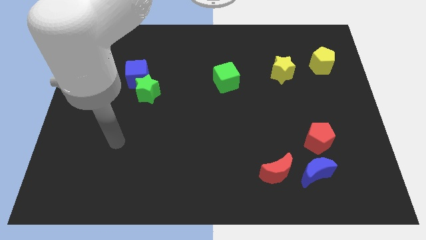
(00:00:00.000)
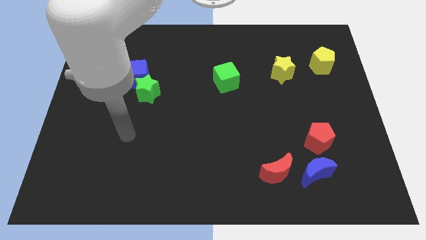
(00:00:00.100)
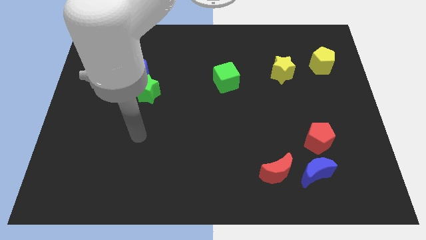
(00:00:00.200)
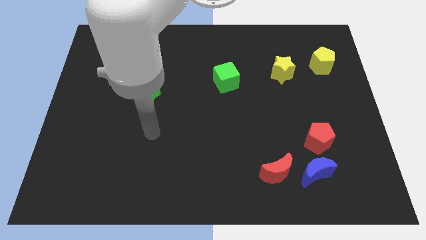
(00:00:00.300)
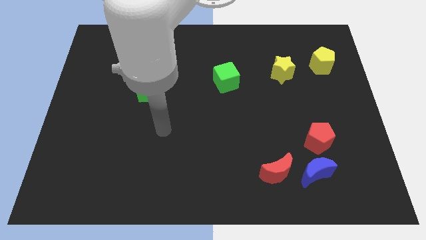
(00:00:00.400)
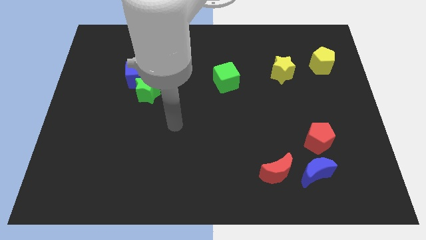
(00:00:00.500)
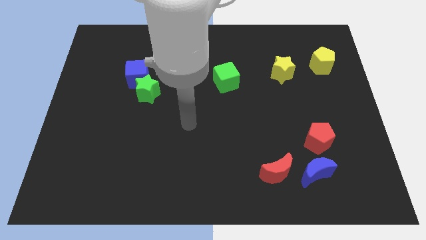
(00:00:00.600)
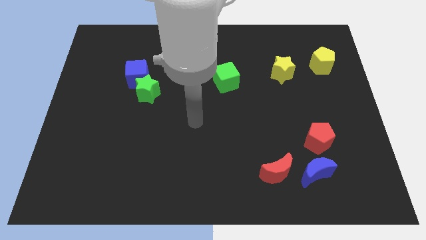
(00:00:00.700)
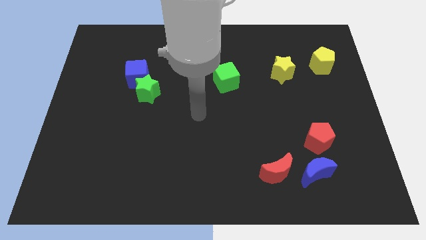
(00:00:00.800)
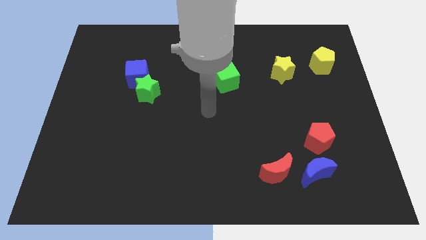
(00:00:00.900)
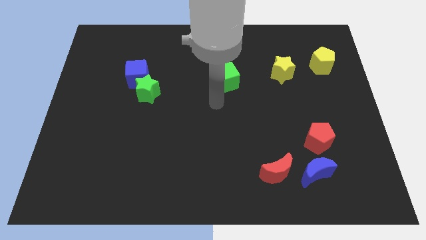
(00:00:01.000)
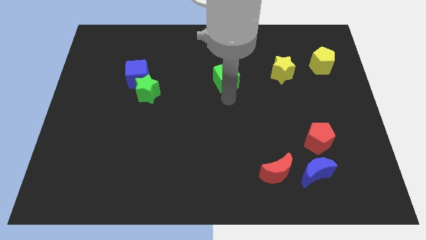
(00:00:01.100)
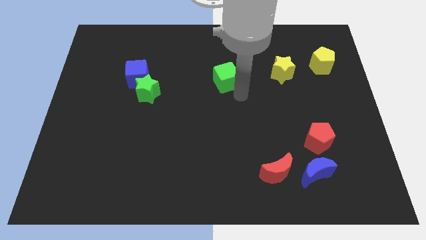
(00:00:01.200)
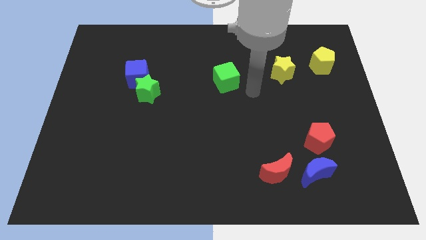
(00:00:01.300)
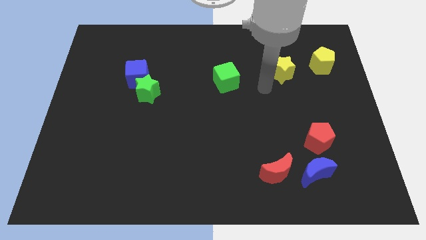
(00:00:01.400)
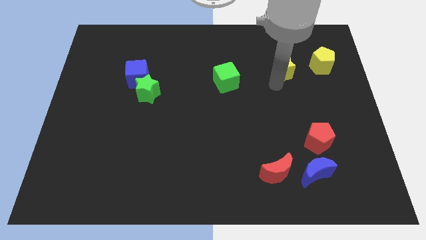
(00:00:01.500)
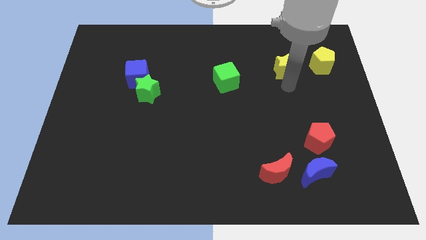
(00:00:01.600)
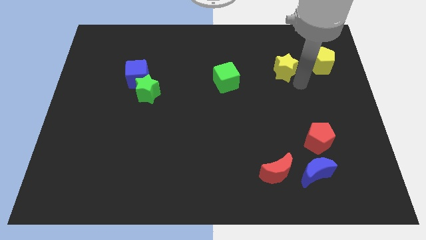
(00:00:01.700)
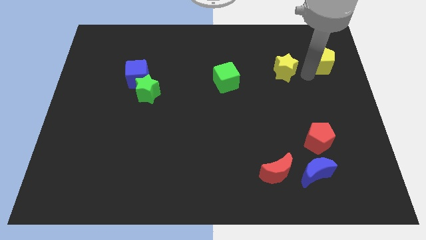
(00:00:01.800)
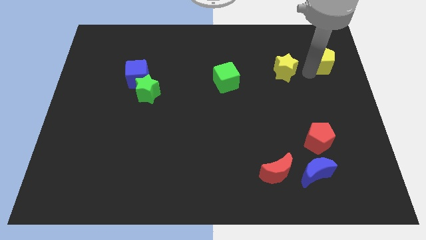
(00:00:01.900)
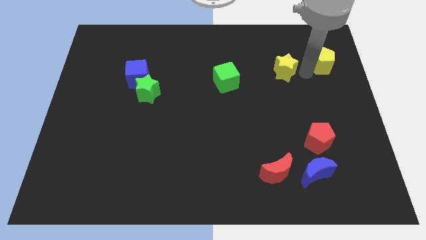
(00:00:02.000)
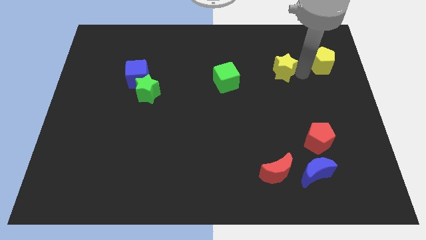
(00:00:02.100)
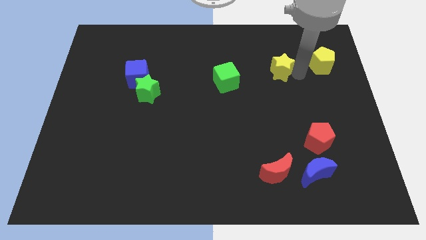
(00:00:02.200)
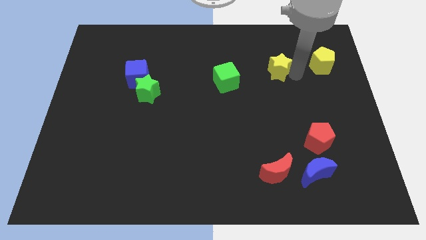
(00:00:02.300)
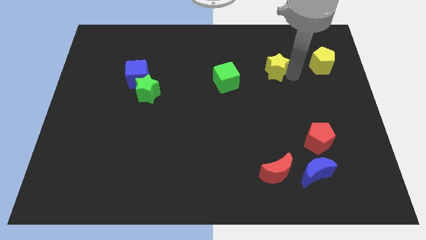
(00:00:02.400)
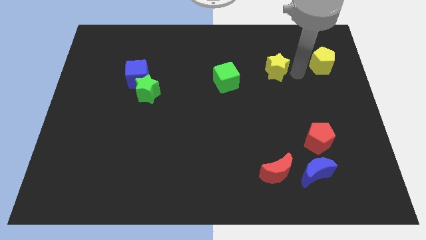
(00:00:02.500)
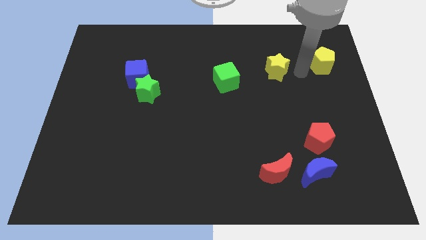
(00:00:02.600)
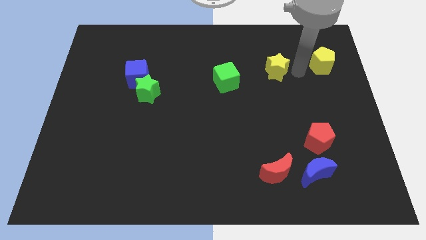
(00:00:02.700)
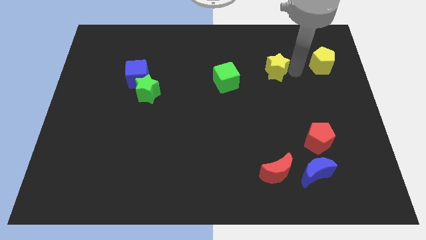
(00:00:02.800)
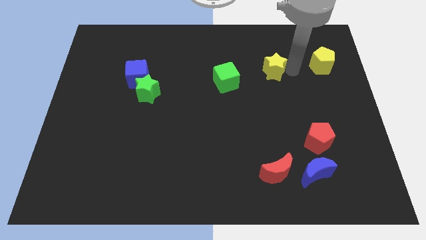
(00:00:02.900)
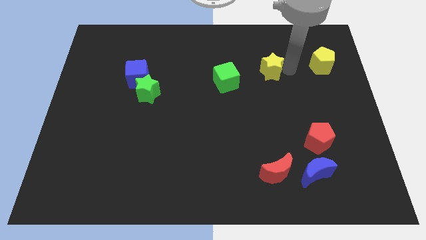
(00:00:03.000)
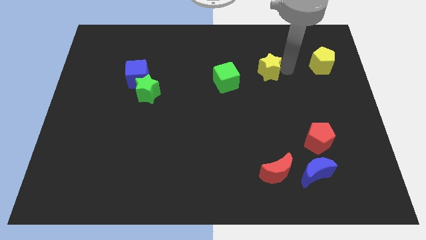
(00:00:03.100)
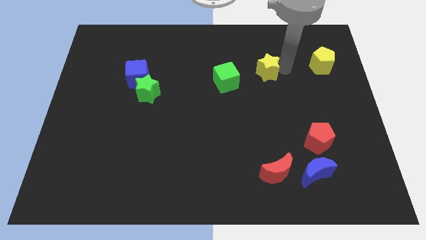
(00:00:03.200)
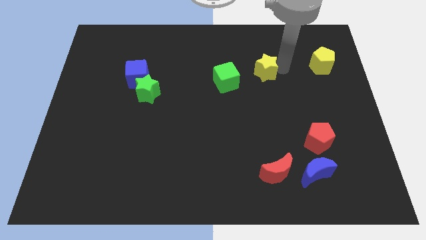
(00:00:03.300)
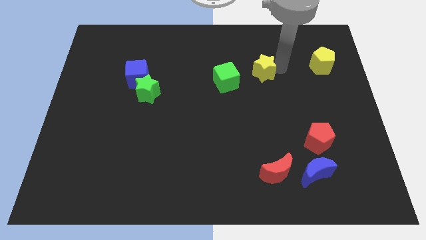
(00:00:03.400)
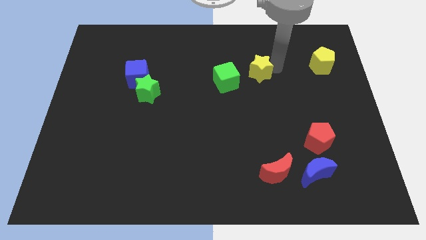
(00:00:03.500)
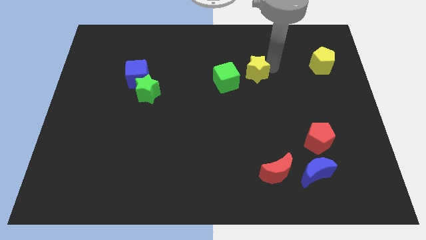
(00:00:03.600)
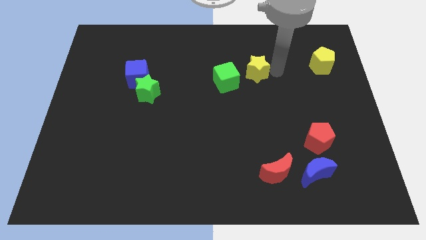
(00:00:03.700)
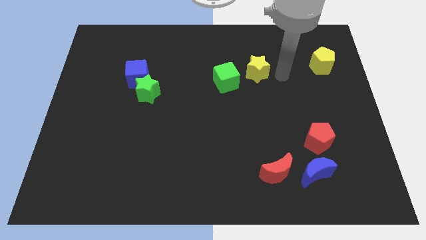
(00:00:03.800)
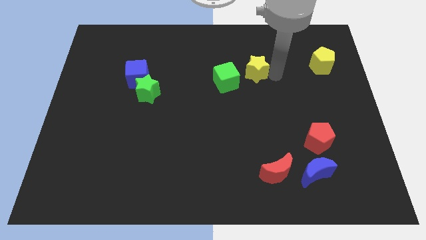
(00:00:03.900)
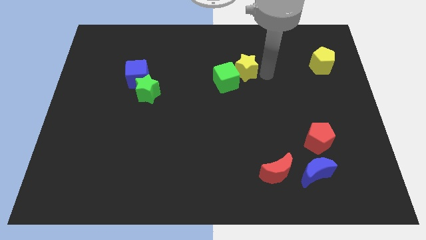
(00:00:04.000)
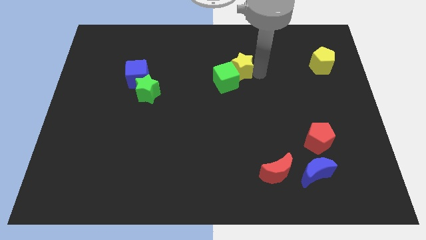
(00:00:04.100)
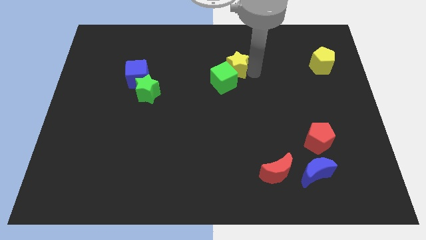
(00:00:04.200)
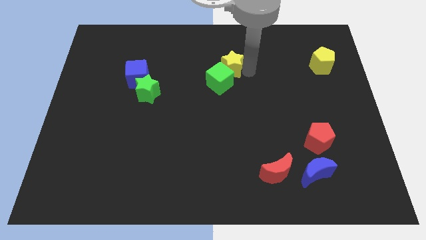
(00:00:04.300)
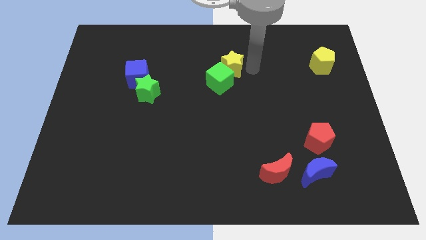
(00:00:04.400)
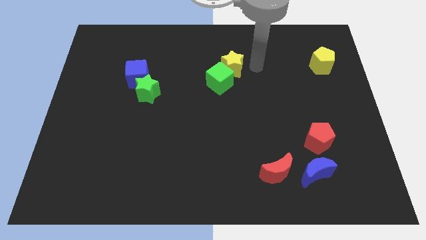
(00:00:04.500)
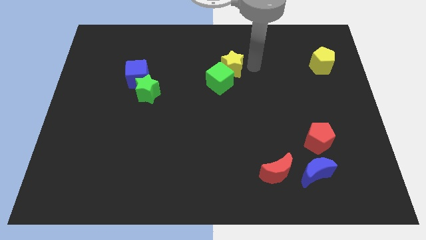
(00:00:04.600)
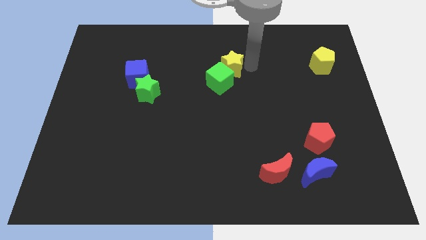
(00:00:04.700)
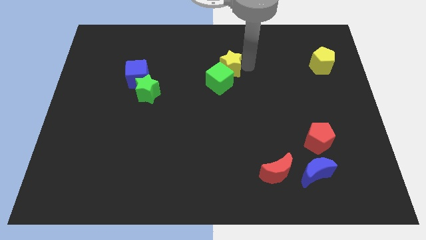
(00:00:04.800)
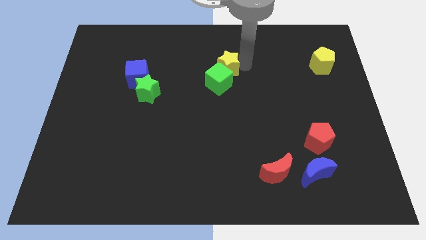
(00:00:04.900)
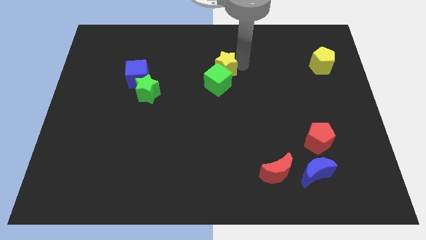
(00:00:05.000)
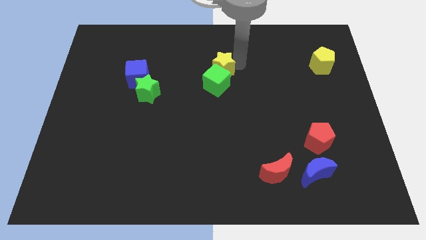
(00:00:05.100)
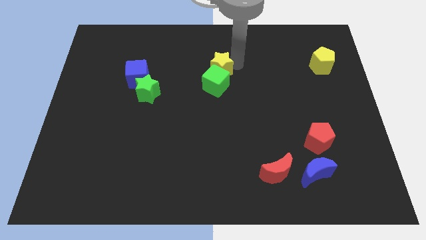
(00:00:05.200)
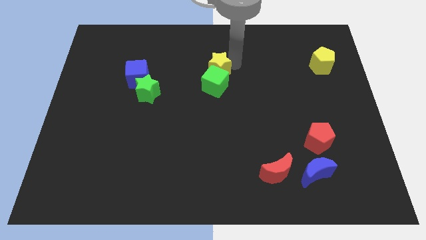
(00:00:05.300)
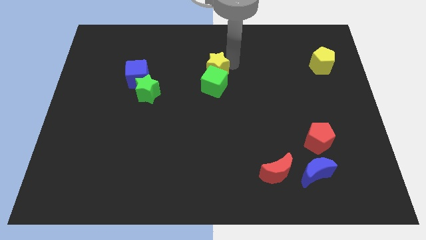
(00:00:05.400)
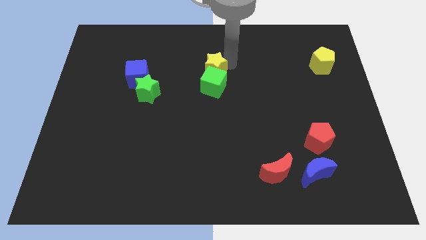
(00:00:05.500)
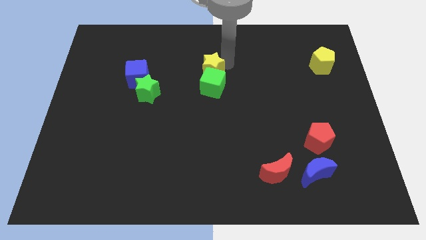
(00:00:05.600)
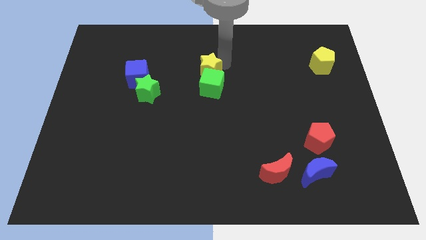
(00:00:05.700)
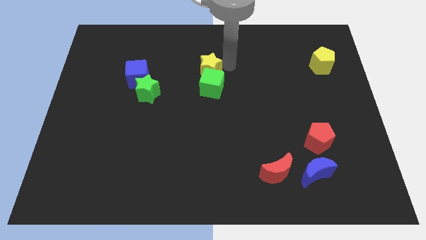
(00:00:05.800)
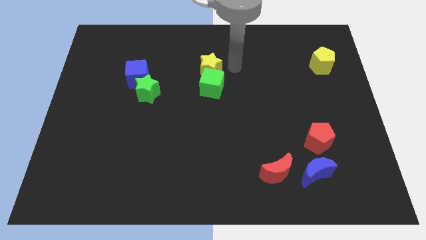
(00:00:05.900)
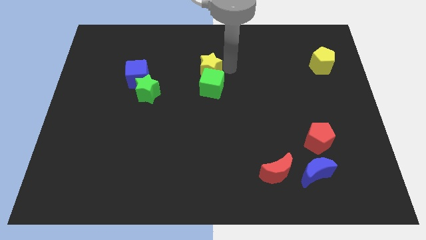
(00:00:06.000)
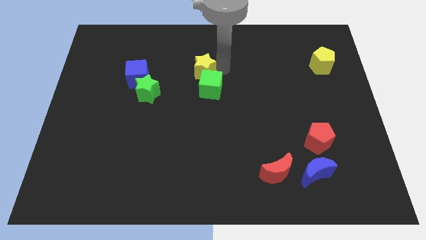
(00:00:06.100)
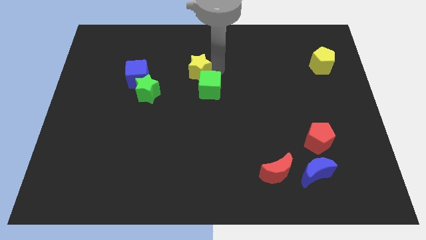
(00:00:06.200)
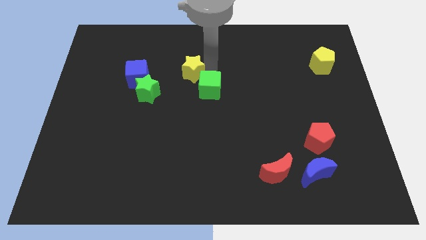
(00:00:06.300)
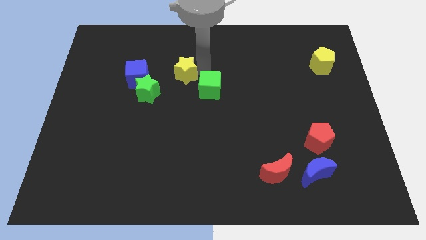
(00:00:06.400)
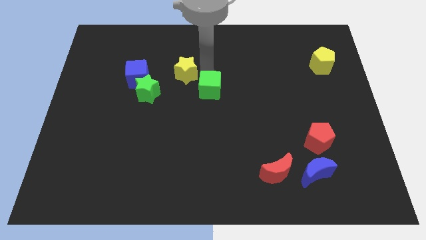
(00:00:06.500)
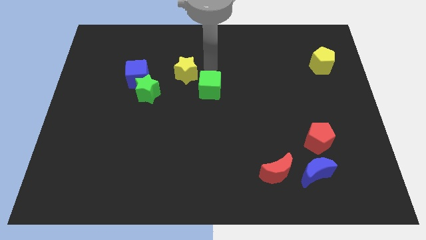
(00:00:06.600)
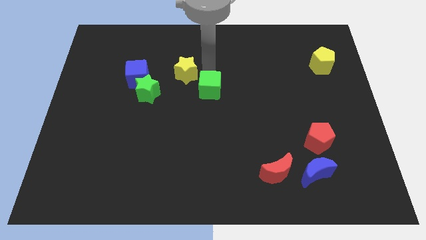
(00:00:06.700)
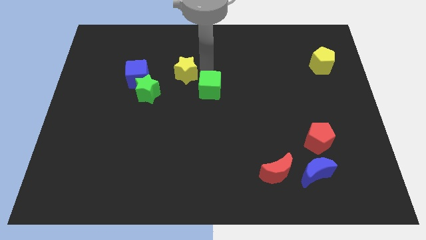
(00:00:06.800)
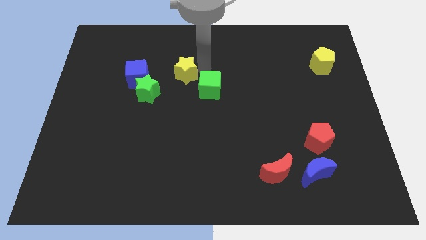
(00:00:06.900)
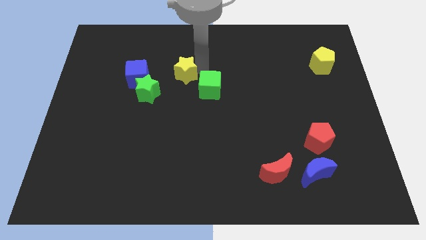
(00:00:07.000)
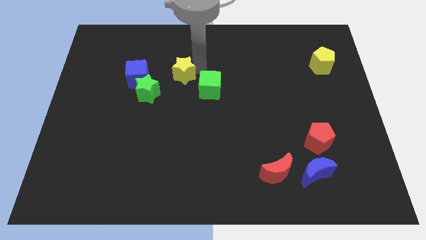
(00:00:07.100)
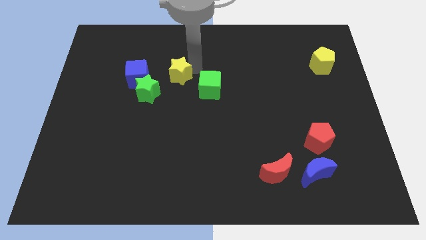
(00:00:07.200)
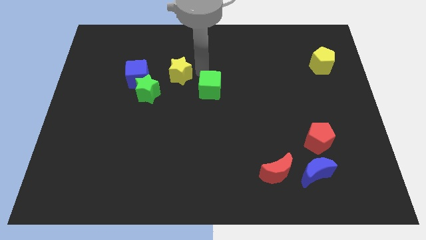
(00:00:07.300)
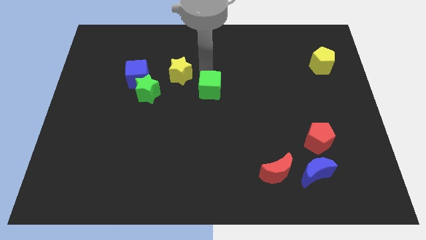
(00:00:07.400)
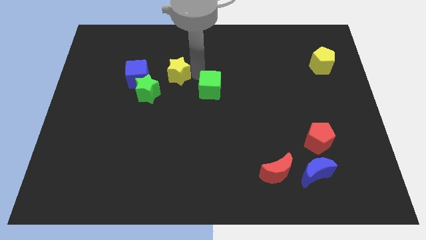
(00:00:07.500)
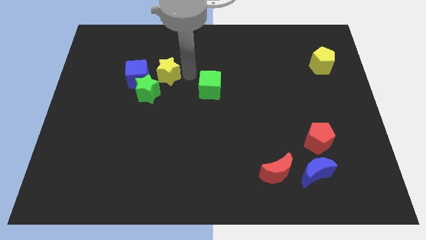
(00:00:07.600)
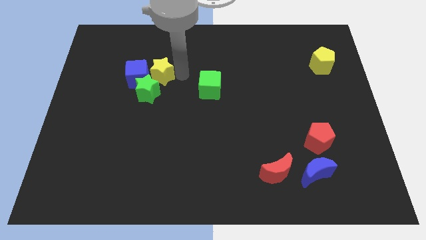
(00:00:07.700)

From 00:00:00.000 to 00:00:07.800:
push the yellow star to the blue cube
